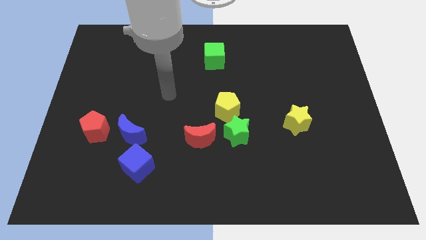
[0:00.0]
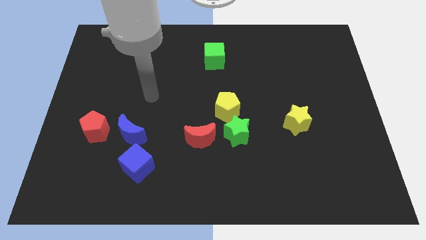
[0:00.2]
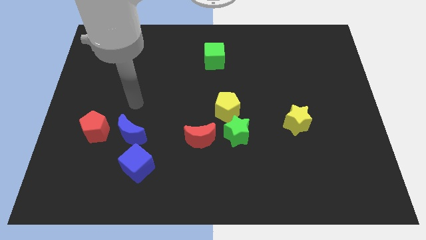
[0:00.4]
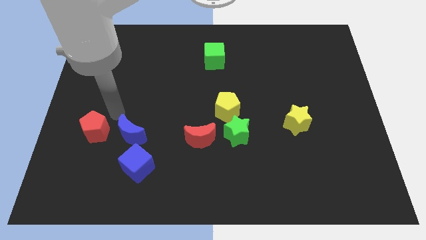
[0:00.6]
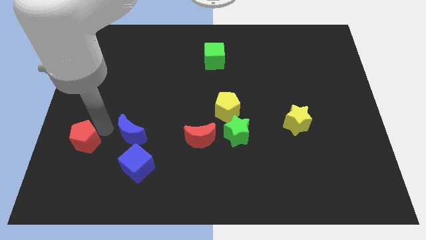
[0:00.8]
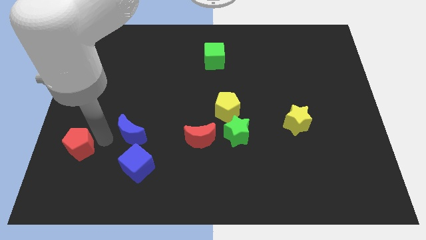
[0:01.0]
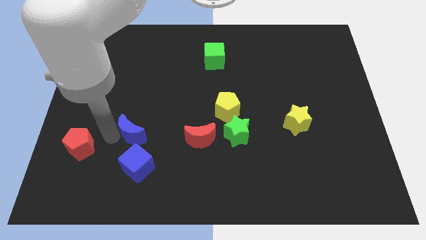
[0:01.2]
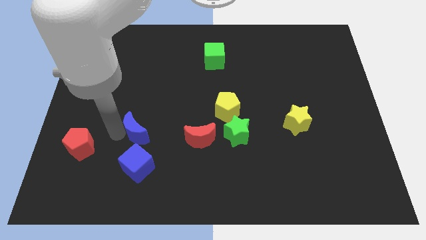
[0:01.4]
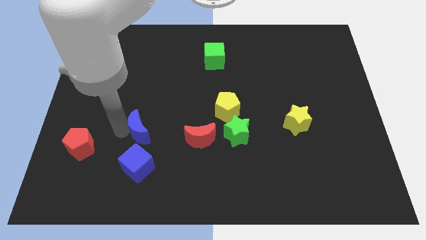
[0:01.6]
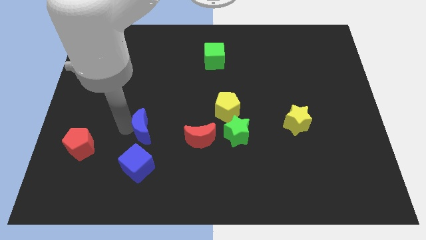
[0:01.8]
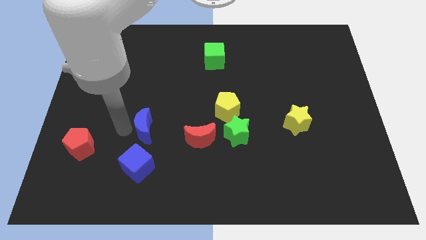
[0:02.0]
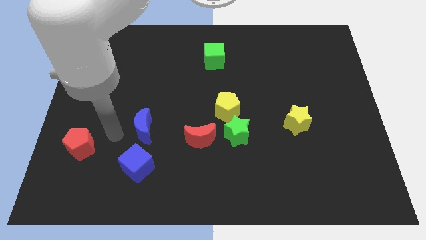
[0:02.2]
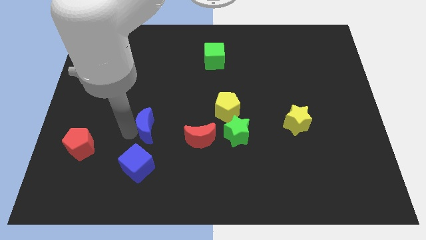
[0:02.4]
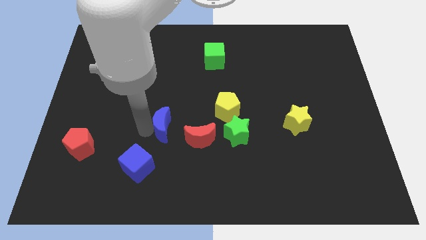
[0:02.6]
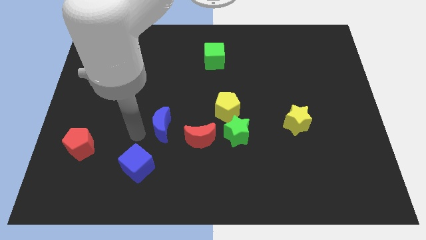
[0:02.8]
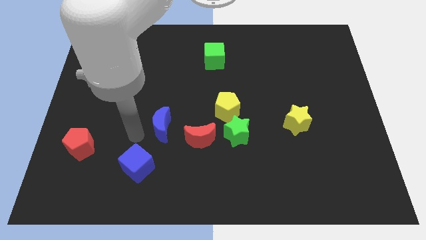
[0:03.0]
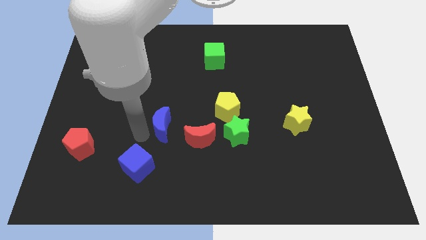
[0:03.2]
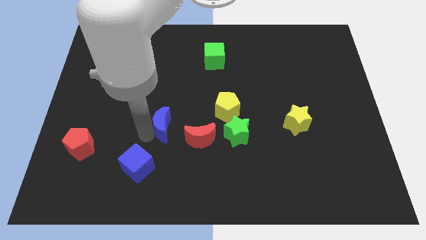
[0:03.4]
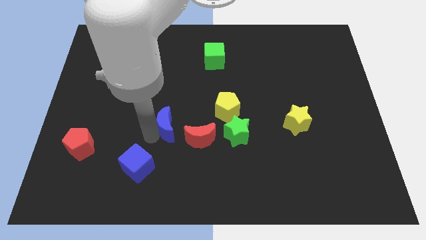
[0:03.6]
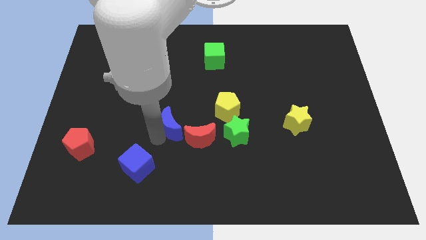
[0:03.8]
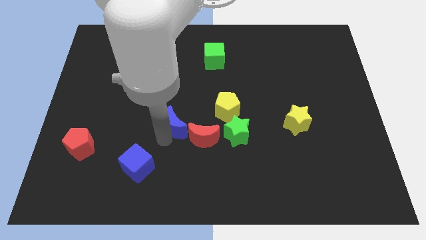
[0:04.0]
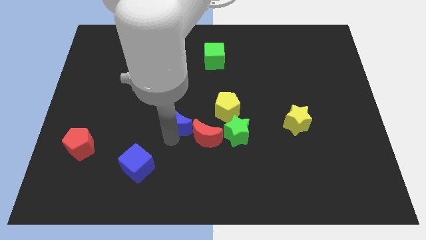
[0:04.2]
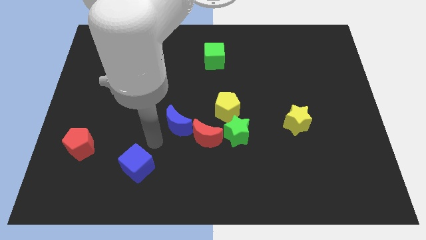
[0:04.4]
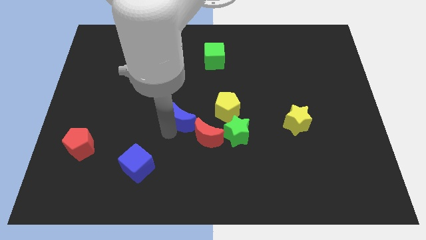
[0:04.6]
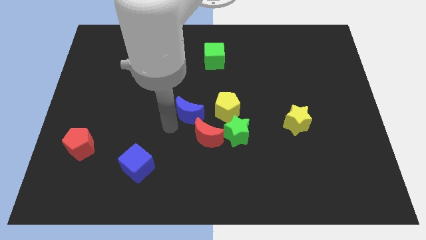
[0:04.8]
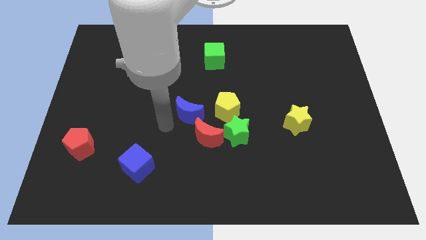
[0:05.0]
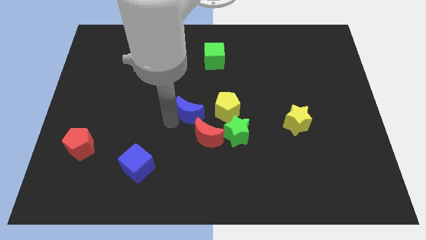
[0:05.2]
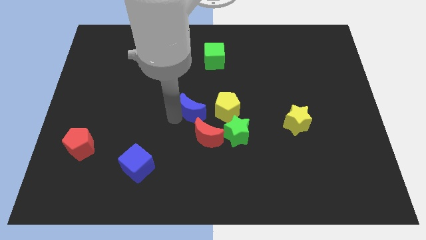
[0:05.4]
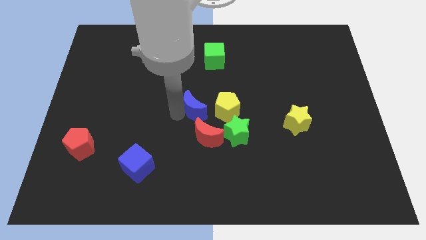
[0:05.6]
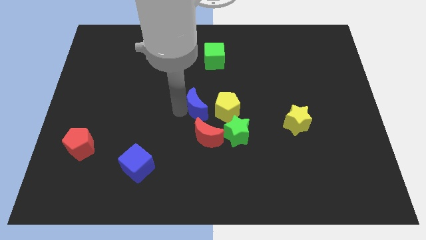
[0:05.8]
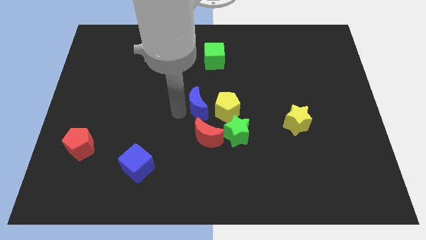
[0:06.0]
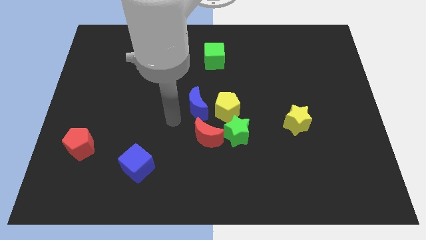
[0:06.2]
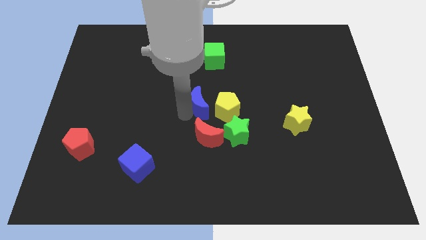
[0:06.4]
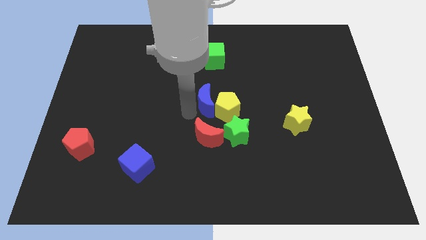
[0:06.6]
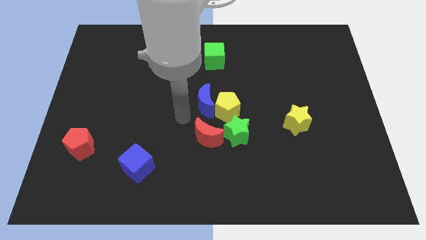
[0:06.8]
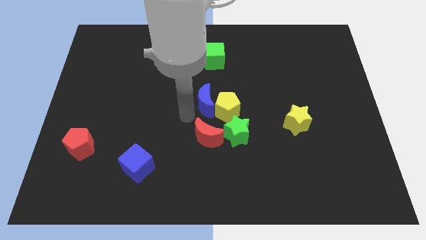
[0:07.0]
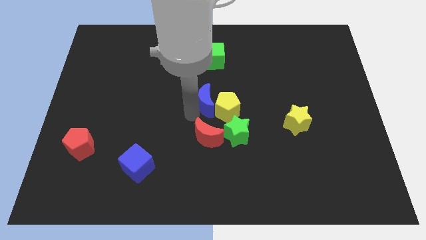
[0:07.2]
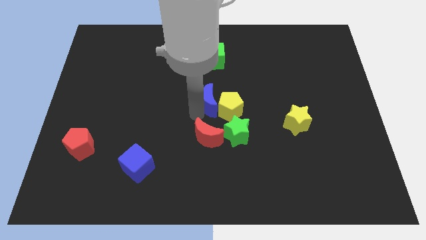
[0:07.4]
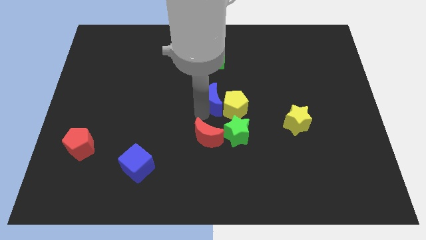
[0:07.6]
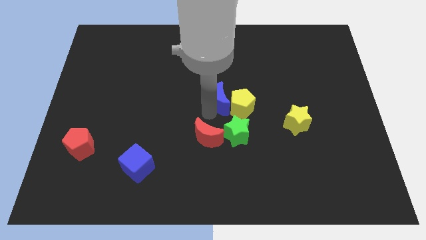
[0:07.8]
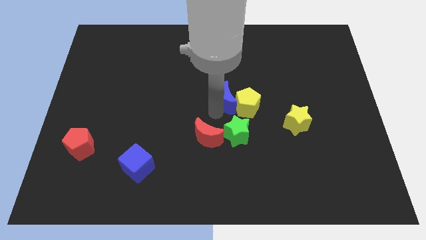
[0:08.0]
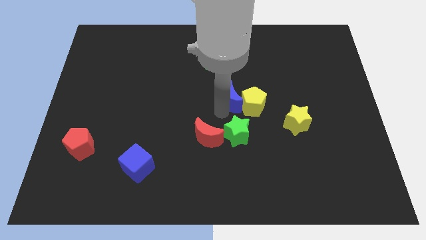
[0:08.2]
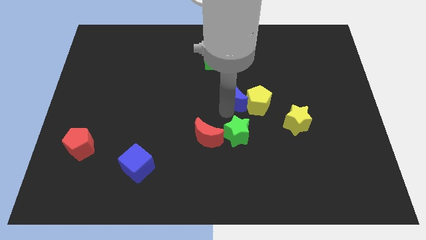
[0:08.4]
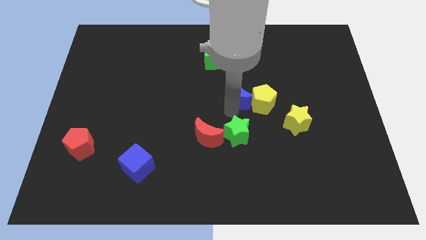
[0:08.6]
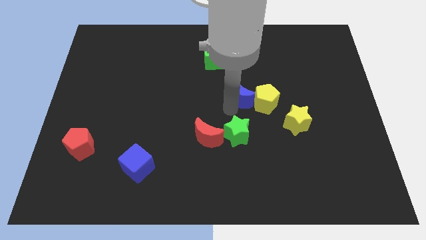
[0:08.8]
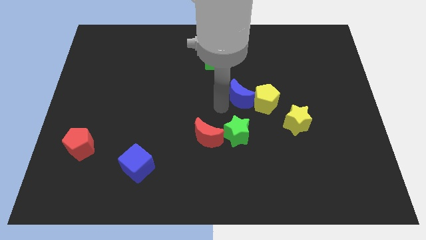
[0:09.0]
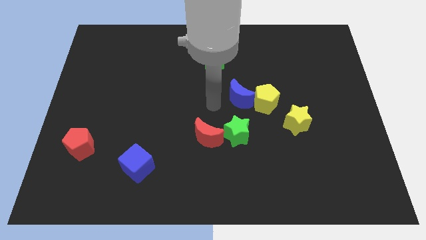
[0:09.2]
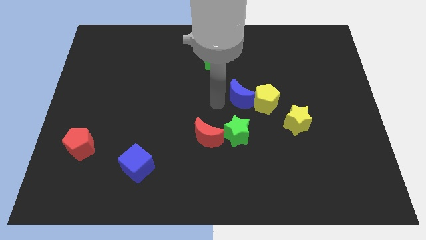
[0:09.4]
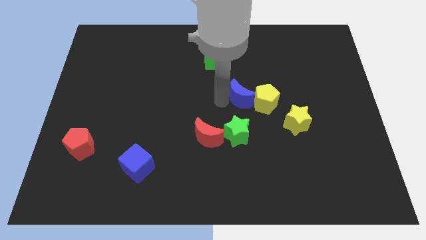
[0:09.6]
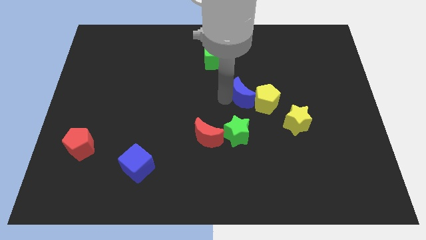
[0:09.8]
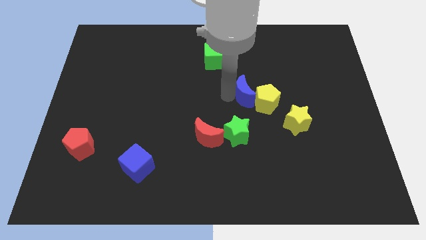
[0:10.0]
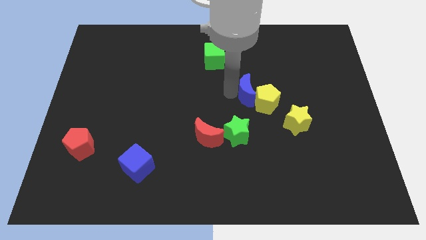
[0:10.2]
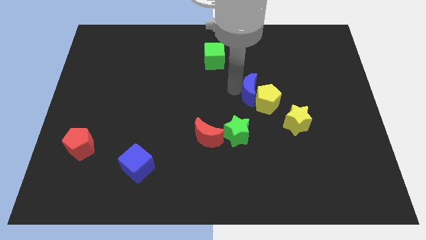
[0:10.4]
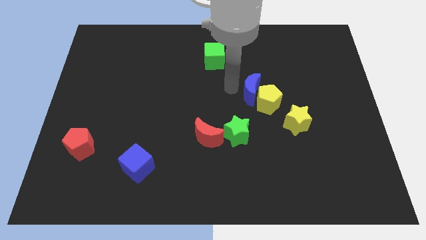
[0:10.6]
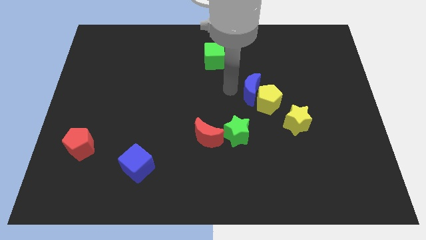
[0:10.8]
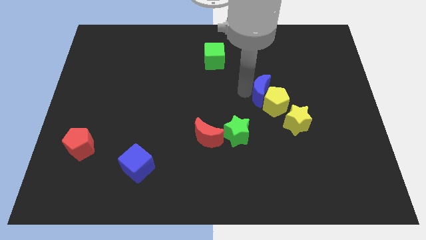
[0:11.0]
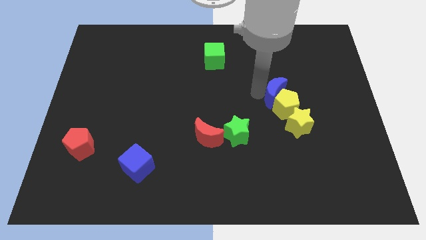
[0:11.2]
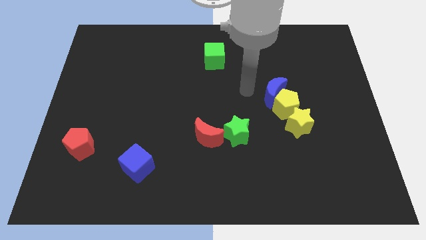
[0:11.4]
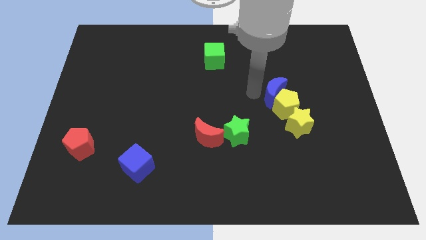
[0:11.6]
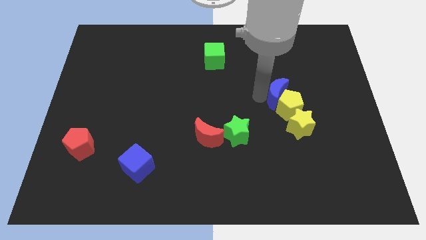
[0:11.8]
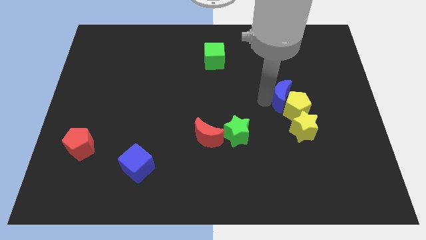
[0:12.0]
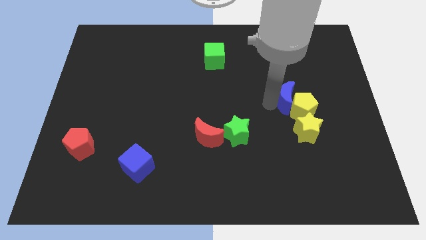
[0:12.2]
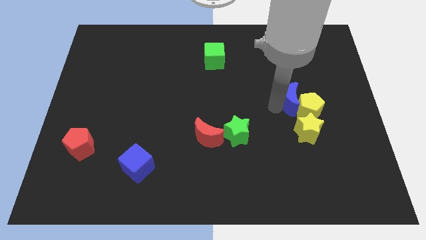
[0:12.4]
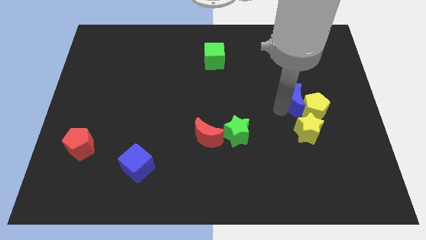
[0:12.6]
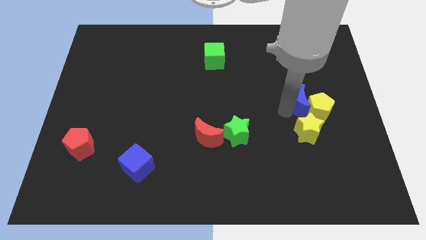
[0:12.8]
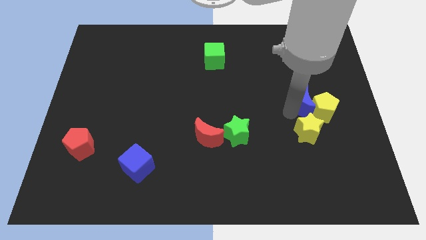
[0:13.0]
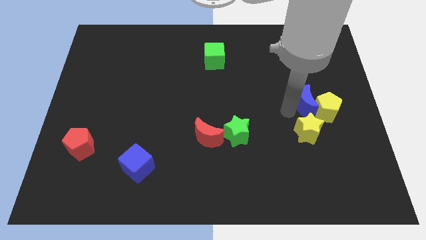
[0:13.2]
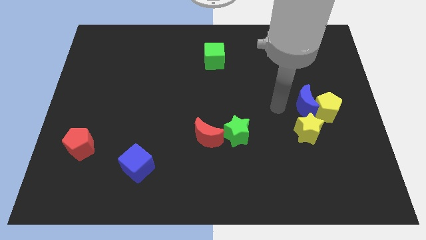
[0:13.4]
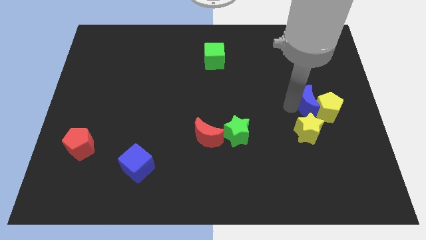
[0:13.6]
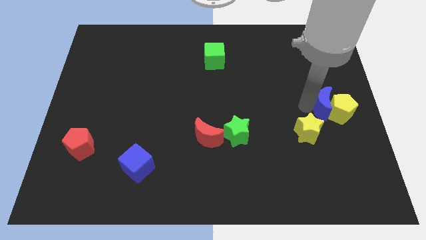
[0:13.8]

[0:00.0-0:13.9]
move the blue moon to the right side
